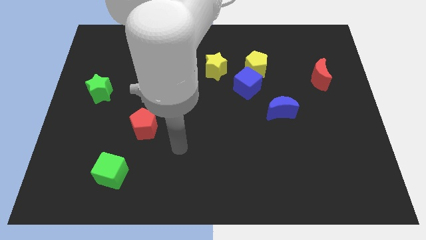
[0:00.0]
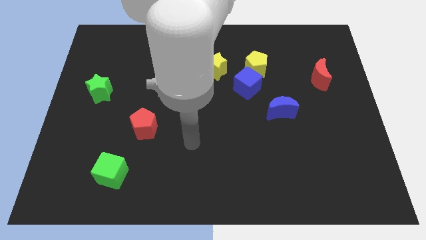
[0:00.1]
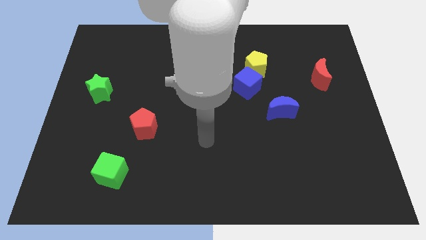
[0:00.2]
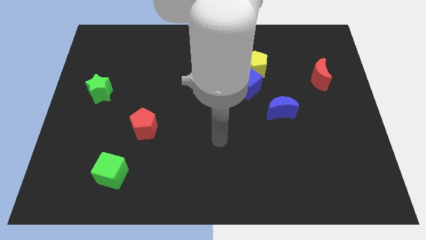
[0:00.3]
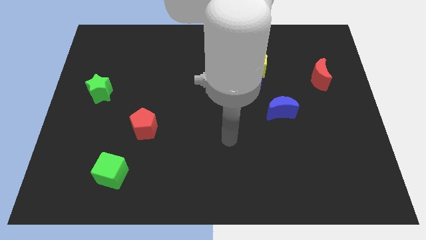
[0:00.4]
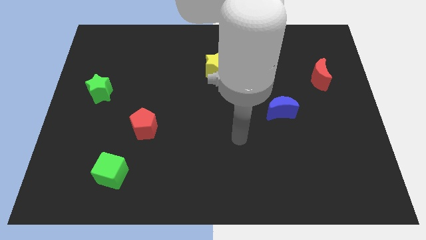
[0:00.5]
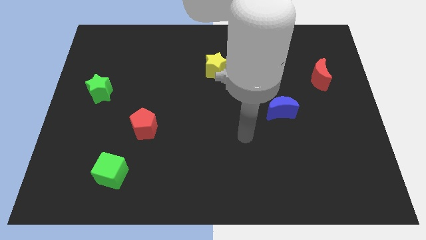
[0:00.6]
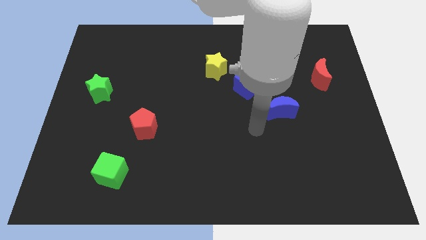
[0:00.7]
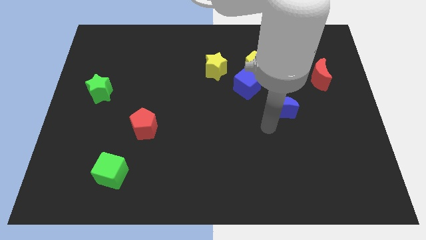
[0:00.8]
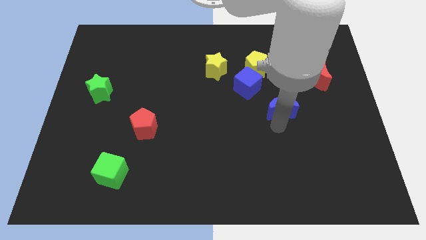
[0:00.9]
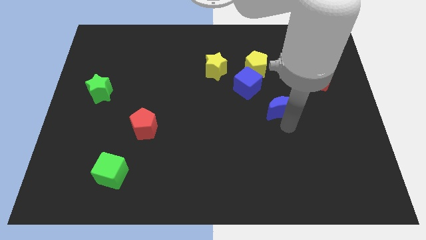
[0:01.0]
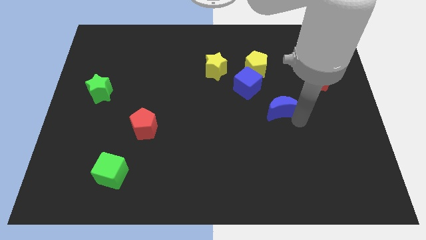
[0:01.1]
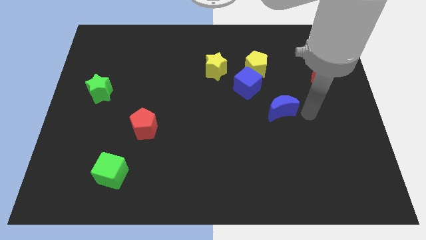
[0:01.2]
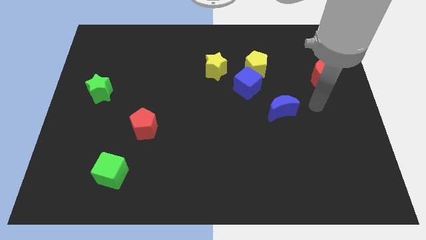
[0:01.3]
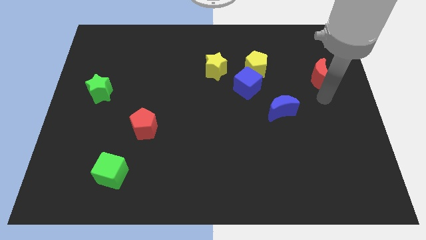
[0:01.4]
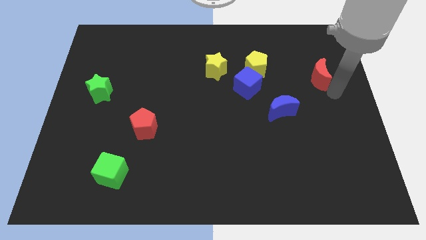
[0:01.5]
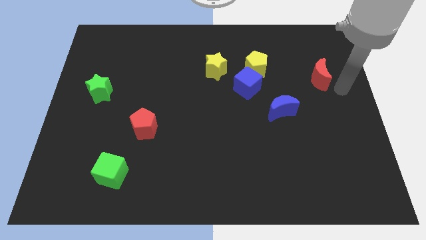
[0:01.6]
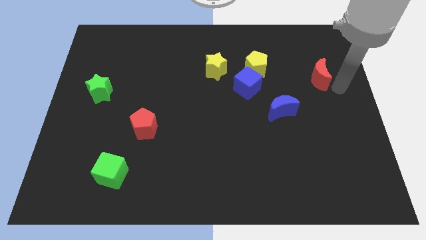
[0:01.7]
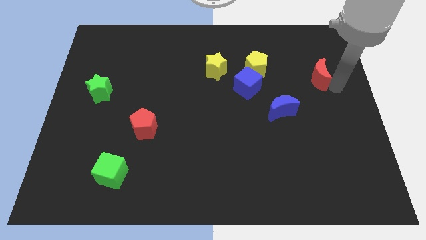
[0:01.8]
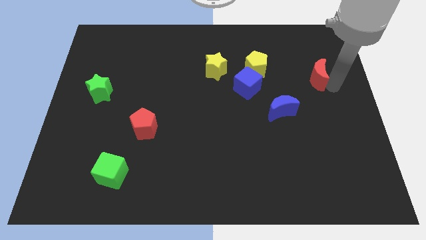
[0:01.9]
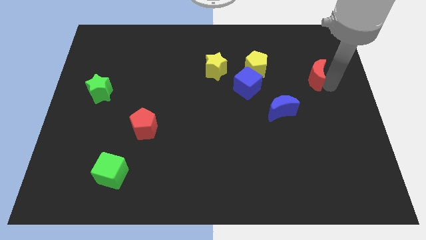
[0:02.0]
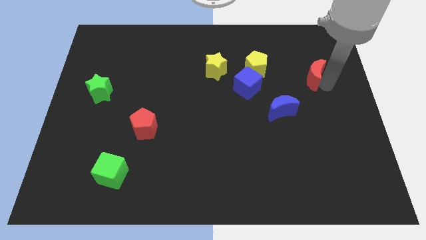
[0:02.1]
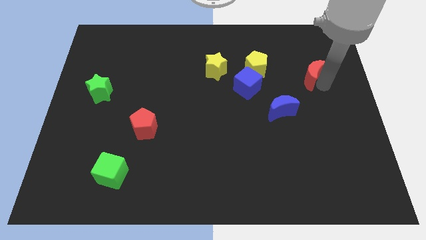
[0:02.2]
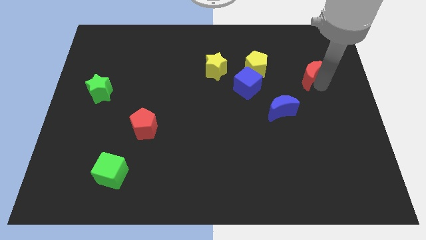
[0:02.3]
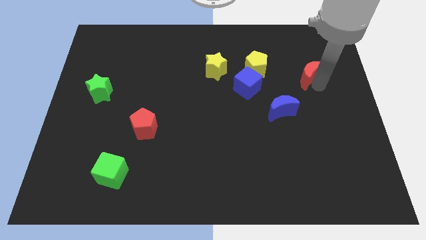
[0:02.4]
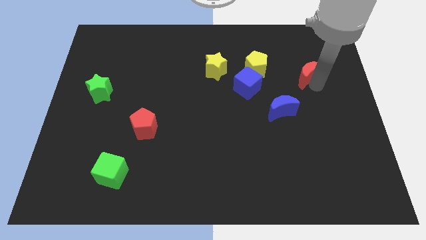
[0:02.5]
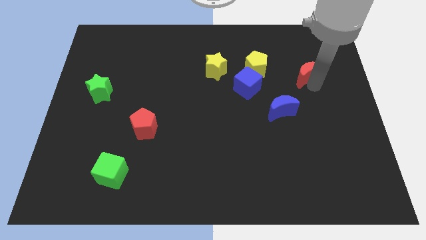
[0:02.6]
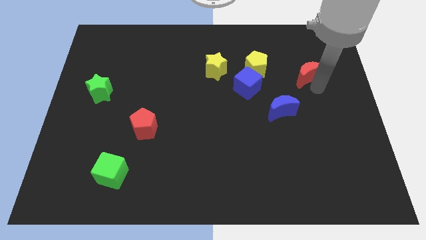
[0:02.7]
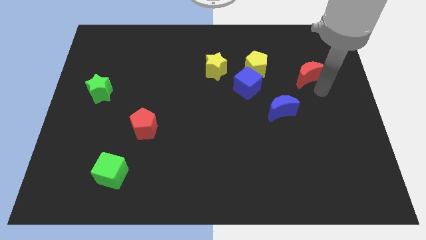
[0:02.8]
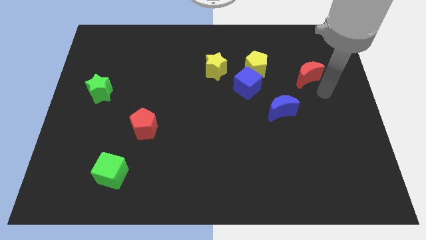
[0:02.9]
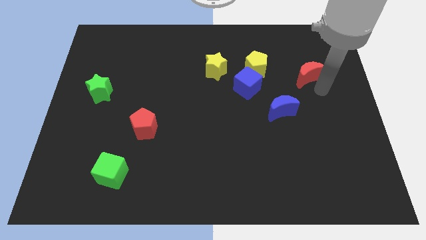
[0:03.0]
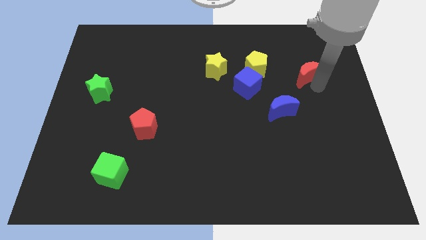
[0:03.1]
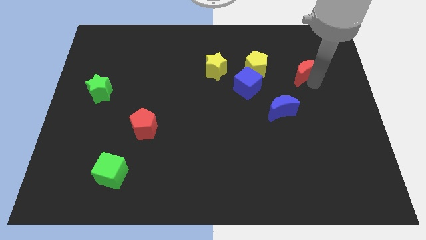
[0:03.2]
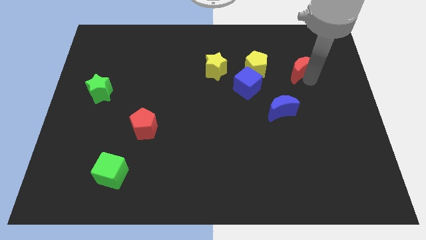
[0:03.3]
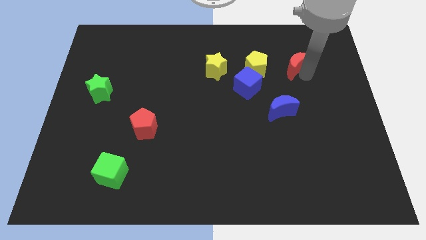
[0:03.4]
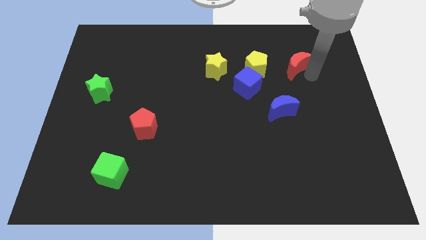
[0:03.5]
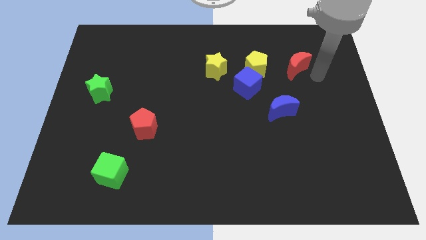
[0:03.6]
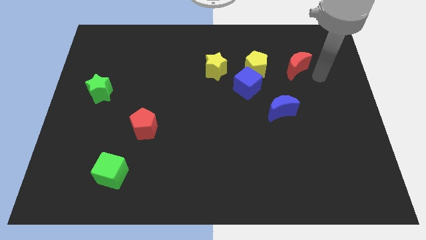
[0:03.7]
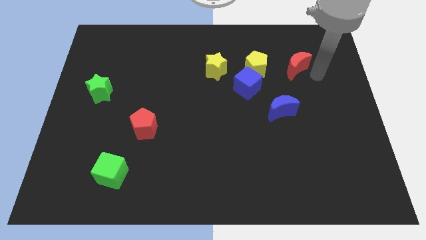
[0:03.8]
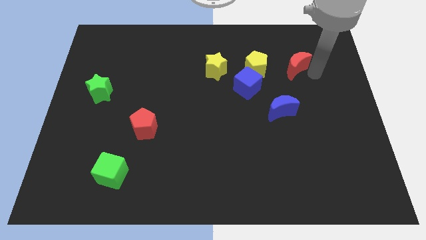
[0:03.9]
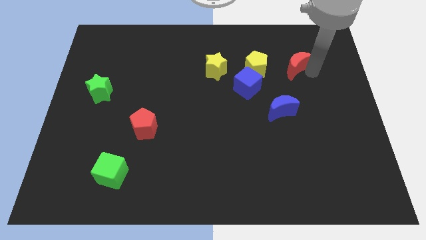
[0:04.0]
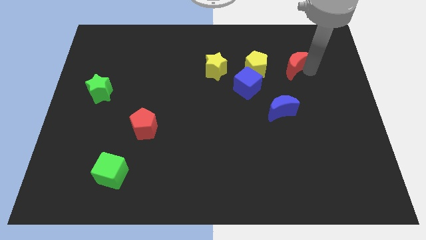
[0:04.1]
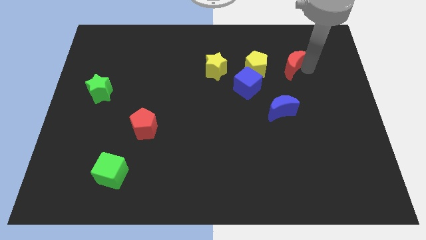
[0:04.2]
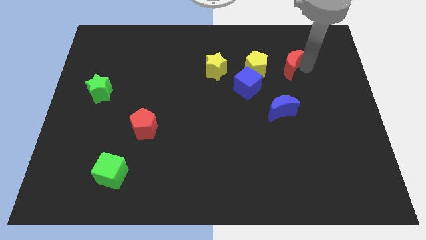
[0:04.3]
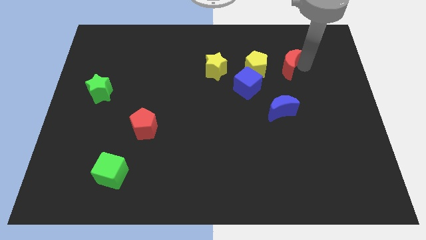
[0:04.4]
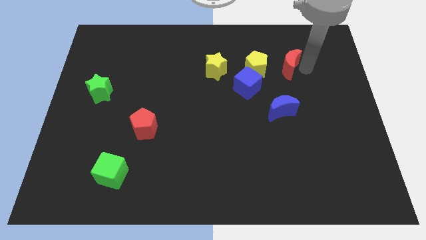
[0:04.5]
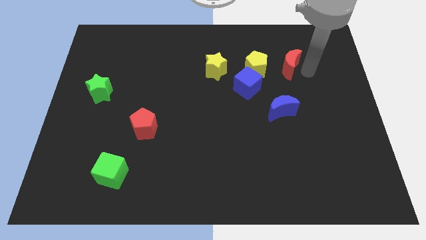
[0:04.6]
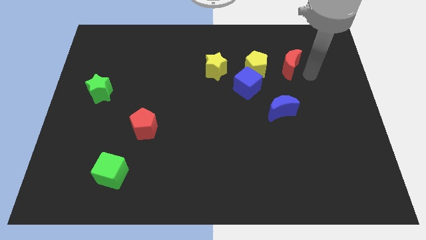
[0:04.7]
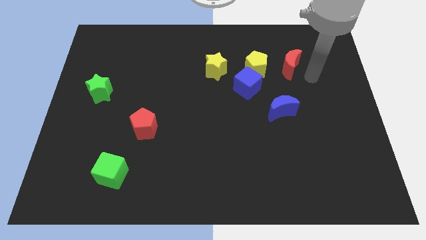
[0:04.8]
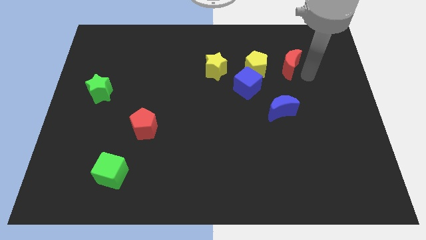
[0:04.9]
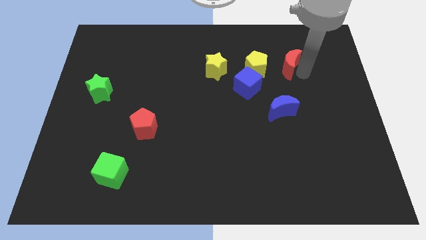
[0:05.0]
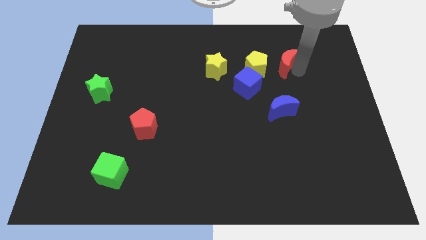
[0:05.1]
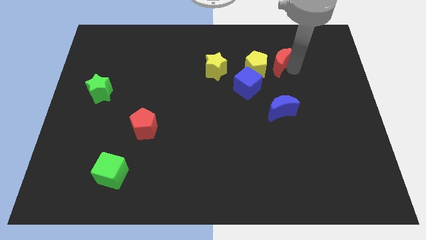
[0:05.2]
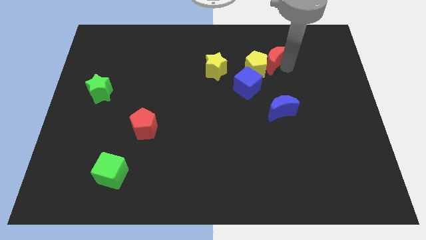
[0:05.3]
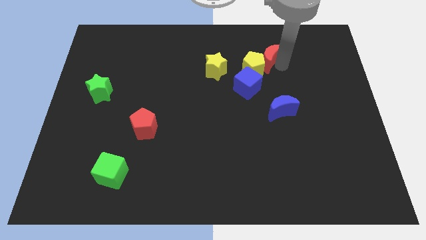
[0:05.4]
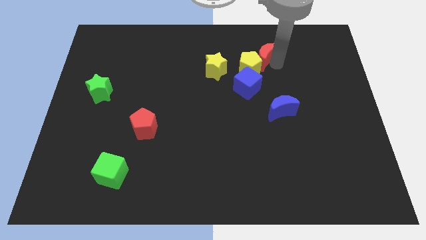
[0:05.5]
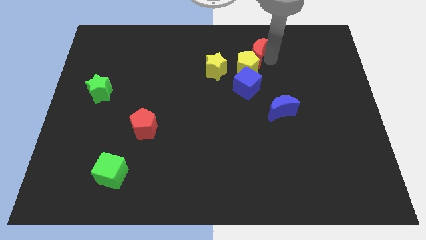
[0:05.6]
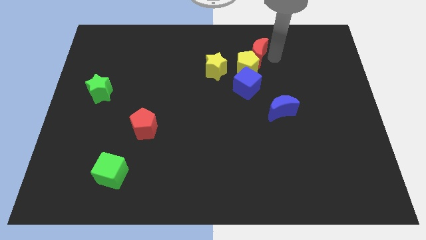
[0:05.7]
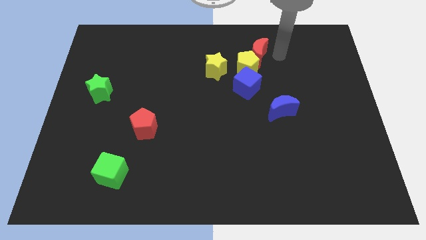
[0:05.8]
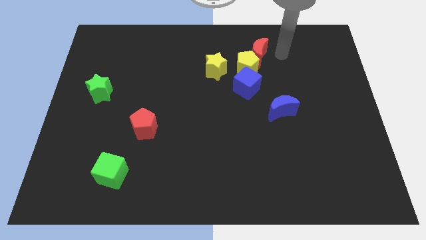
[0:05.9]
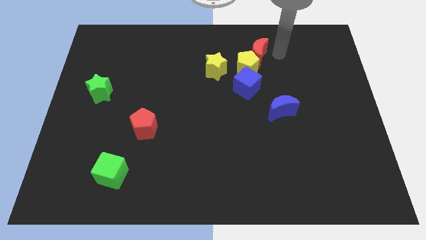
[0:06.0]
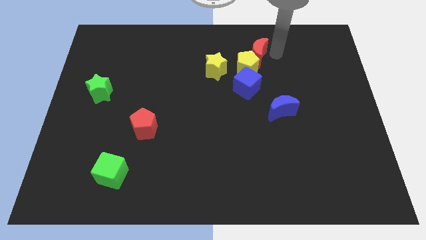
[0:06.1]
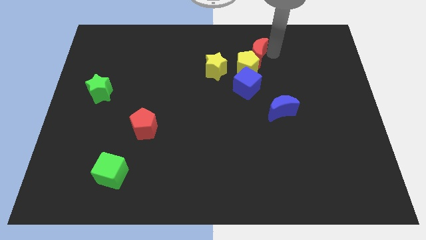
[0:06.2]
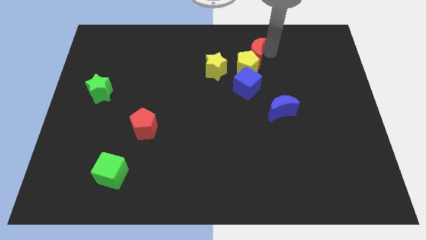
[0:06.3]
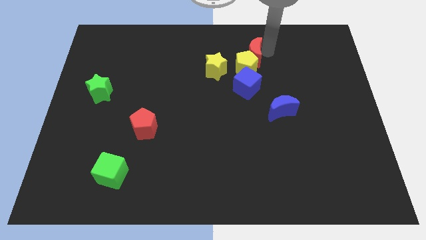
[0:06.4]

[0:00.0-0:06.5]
push the red moon to the top right of the yellow star

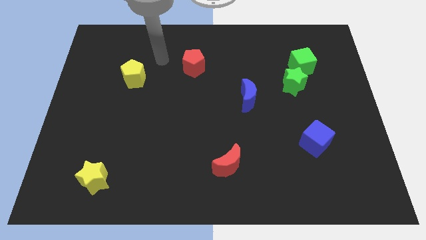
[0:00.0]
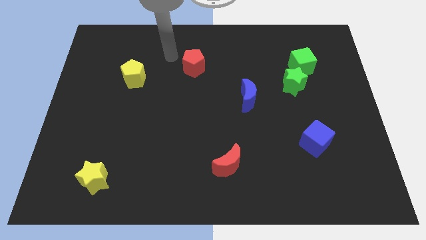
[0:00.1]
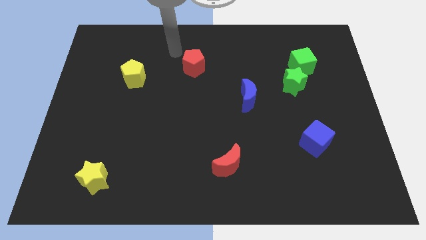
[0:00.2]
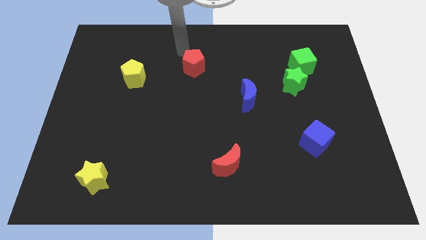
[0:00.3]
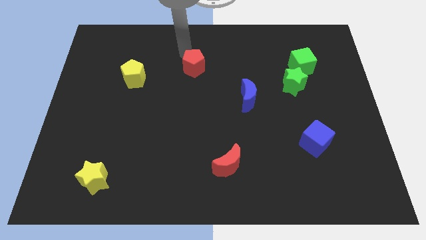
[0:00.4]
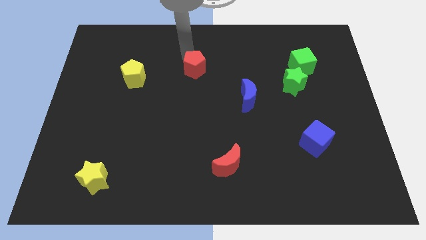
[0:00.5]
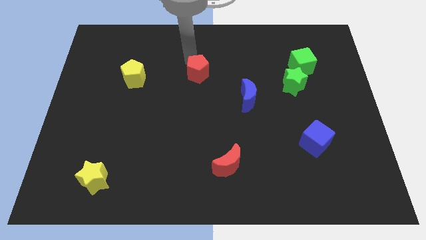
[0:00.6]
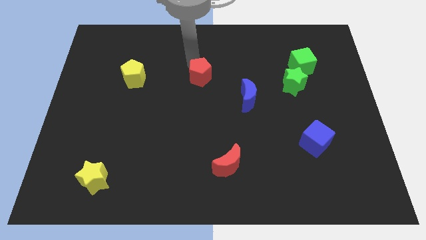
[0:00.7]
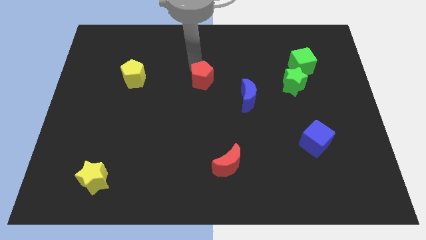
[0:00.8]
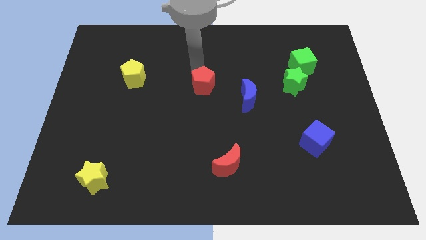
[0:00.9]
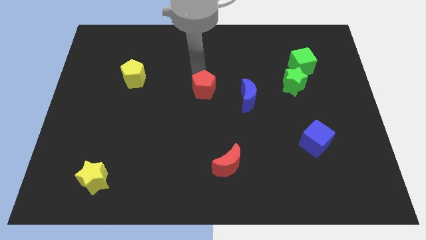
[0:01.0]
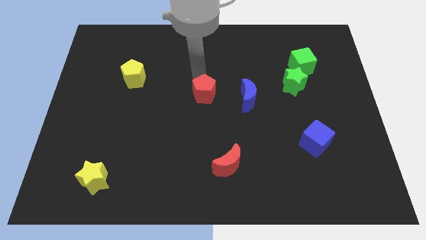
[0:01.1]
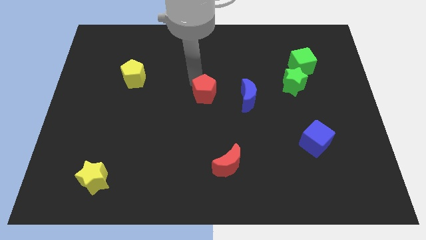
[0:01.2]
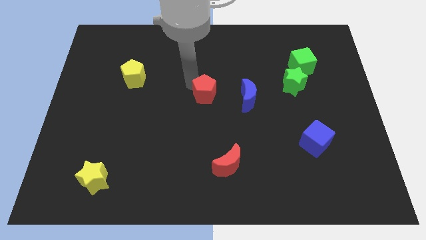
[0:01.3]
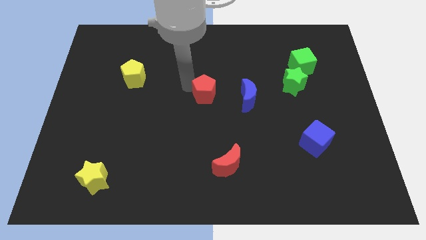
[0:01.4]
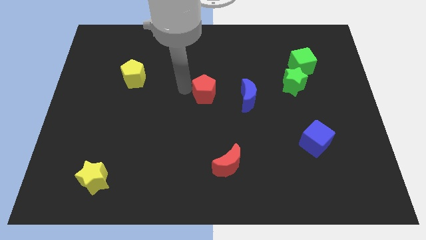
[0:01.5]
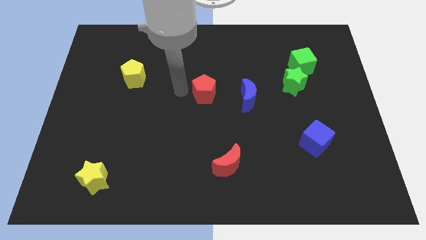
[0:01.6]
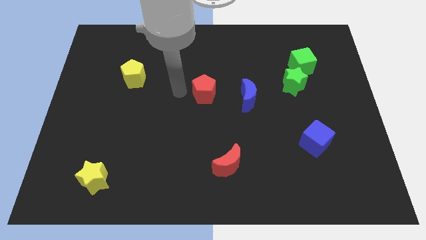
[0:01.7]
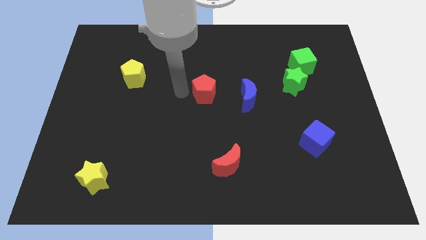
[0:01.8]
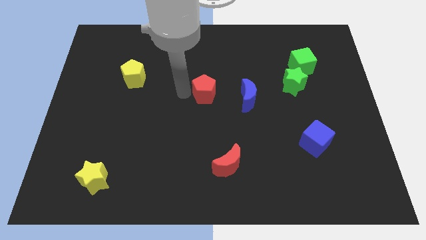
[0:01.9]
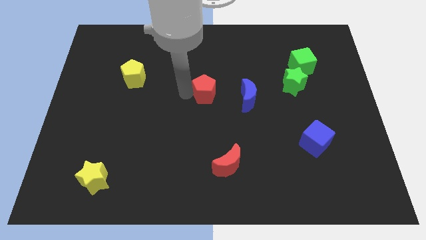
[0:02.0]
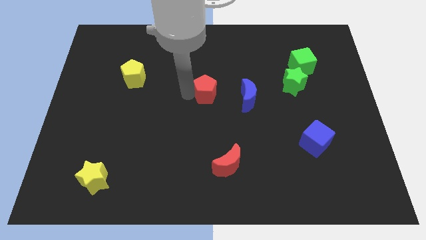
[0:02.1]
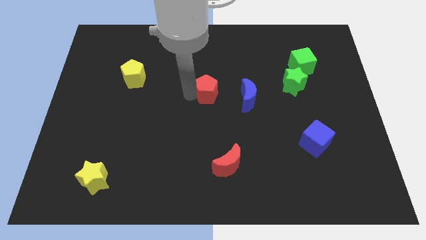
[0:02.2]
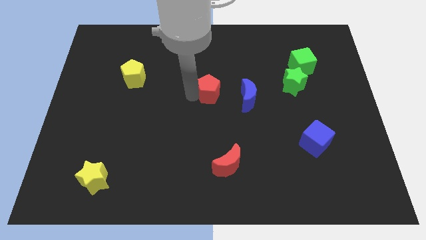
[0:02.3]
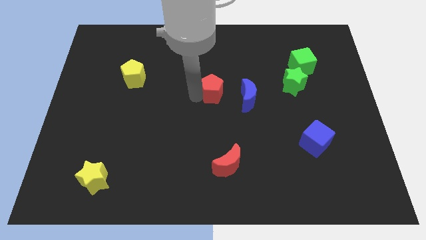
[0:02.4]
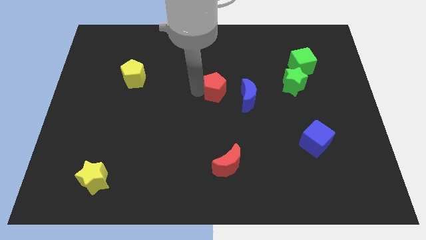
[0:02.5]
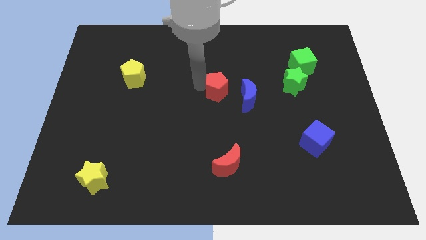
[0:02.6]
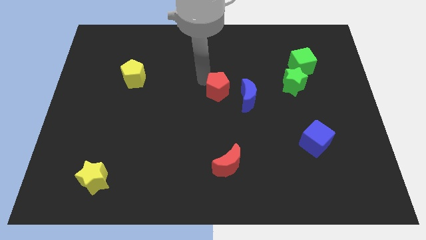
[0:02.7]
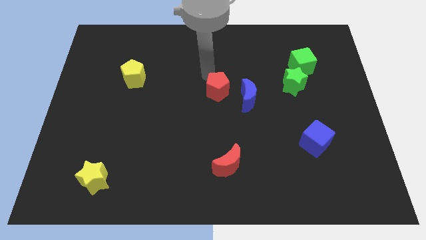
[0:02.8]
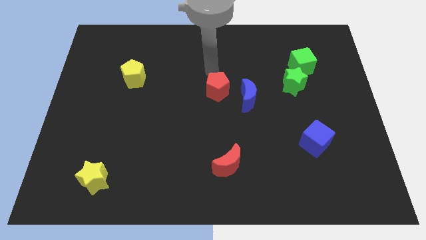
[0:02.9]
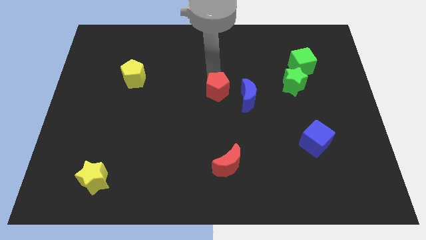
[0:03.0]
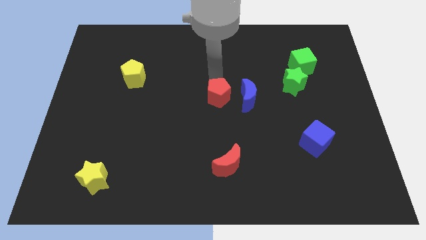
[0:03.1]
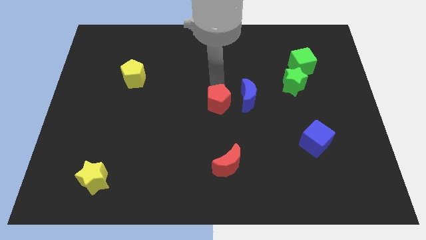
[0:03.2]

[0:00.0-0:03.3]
push the red pentagon to the bottom left side of the blue moon
